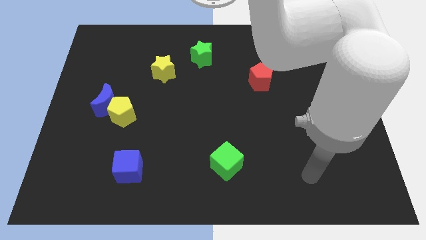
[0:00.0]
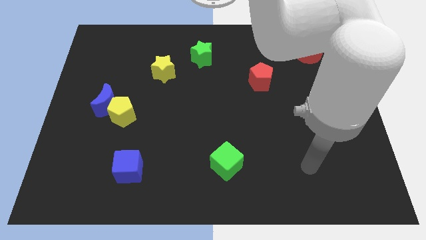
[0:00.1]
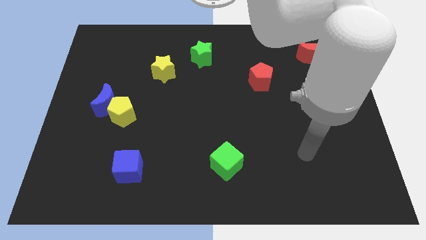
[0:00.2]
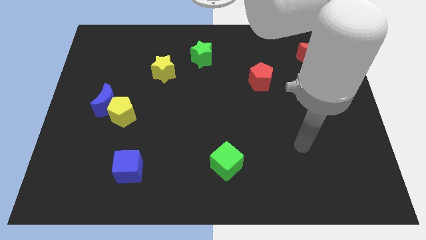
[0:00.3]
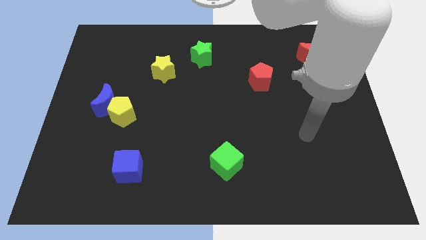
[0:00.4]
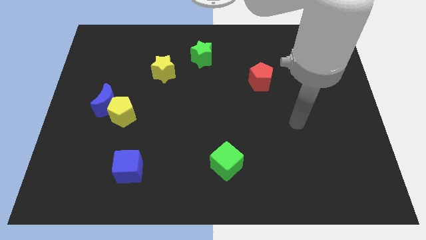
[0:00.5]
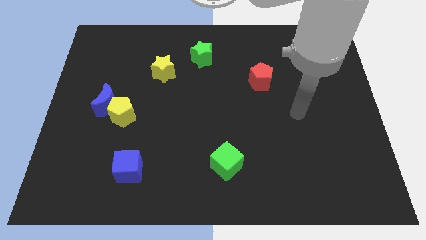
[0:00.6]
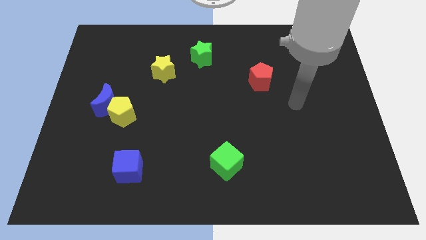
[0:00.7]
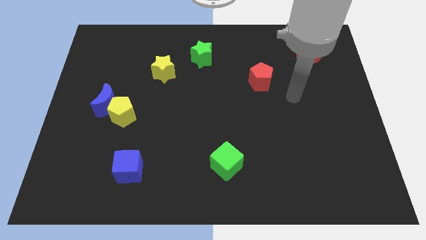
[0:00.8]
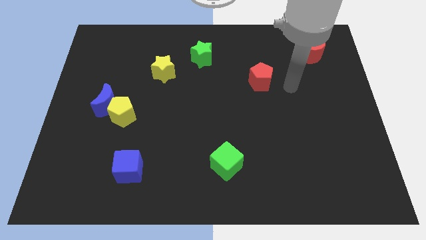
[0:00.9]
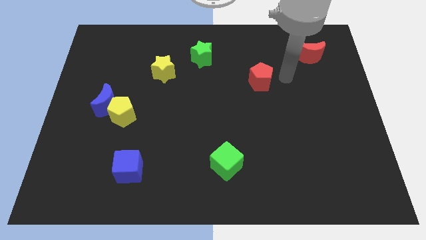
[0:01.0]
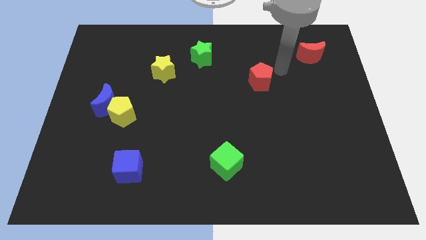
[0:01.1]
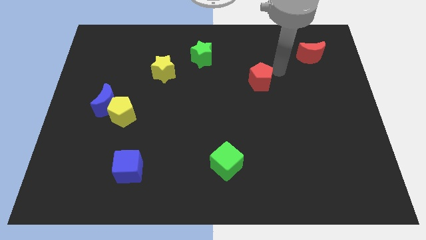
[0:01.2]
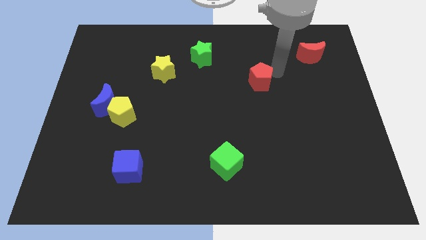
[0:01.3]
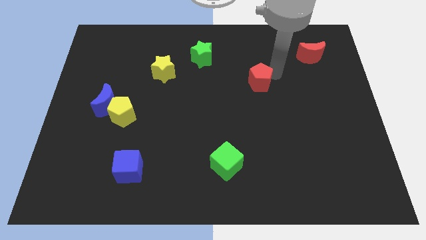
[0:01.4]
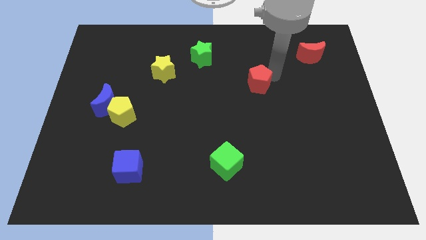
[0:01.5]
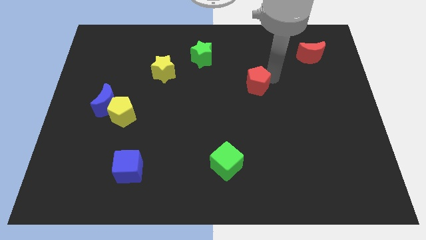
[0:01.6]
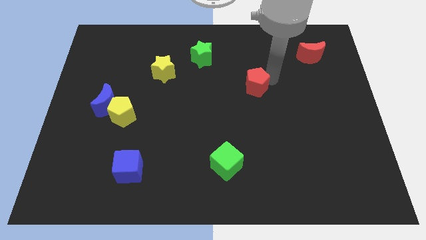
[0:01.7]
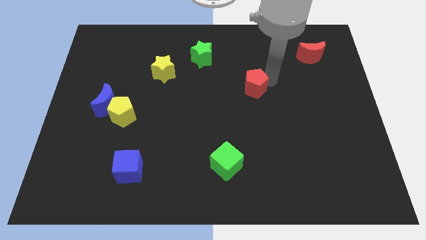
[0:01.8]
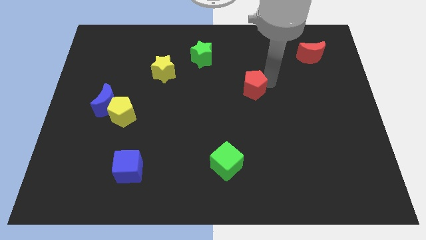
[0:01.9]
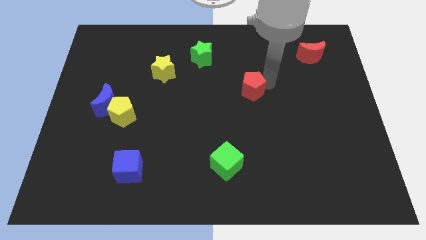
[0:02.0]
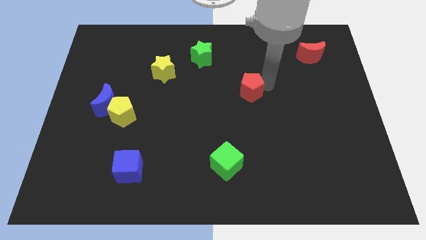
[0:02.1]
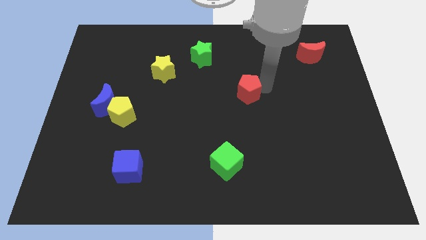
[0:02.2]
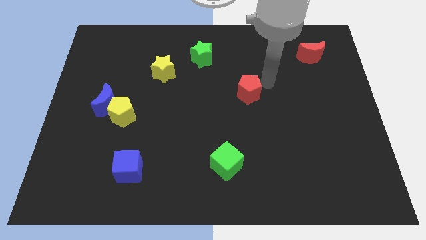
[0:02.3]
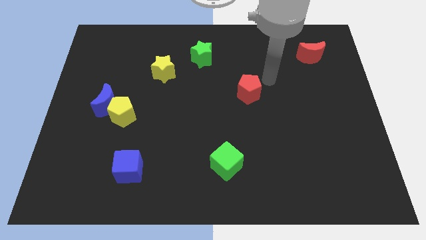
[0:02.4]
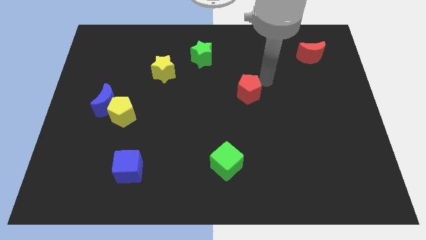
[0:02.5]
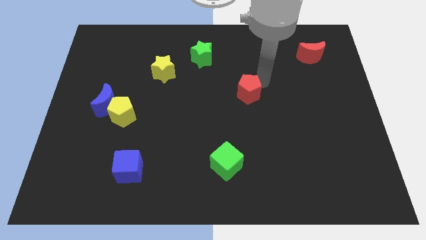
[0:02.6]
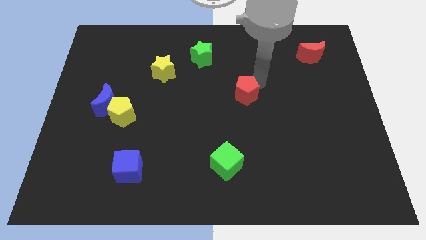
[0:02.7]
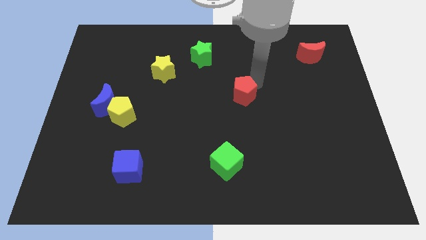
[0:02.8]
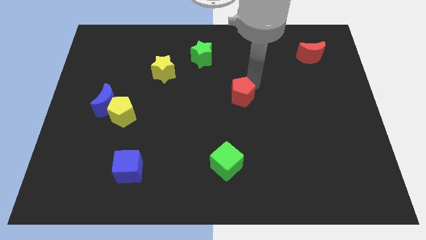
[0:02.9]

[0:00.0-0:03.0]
move the red pentagon somewhat down and left diagonally

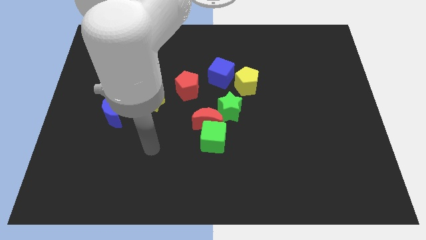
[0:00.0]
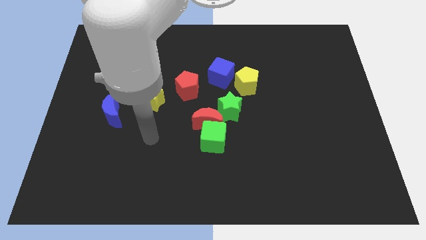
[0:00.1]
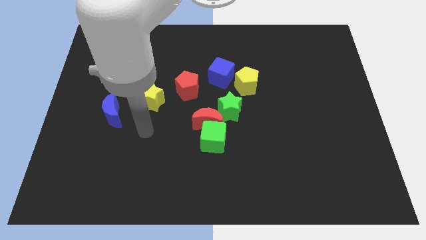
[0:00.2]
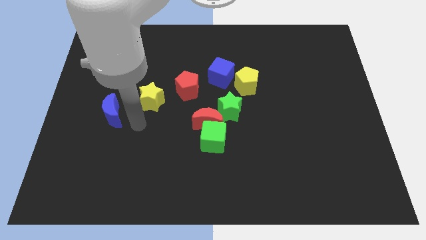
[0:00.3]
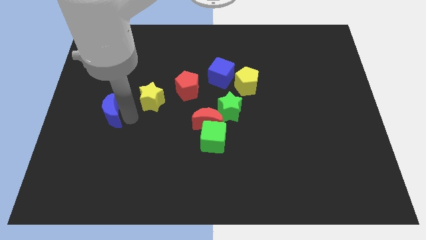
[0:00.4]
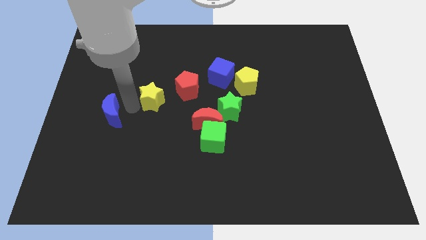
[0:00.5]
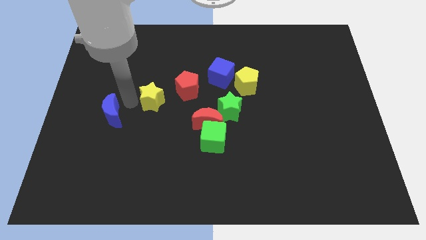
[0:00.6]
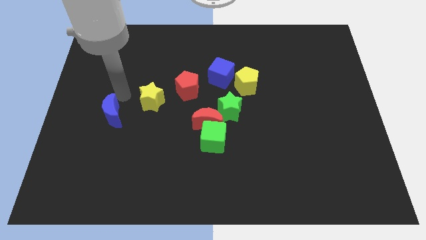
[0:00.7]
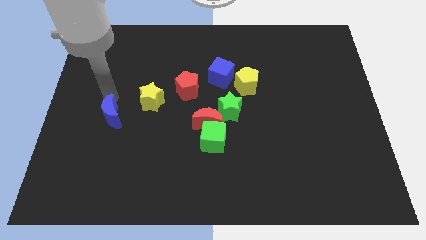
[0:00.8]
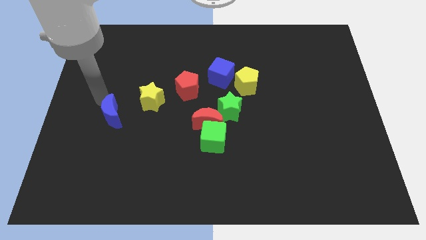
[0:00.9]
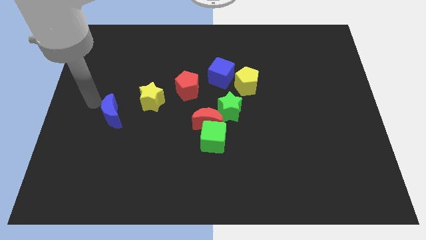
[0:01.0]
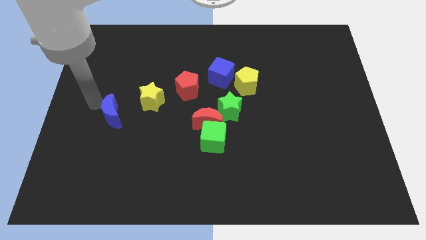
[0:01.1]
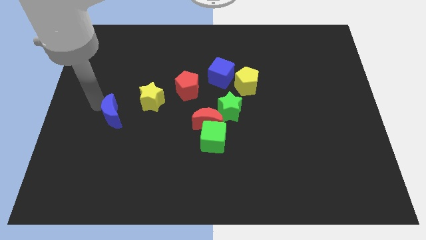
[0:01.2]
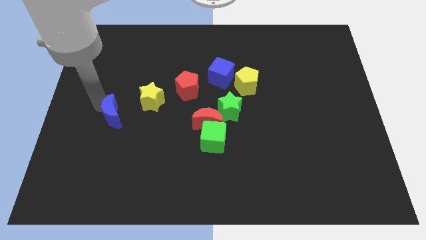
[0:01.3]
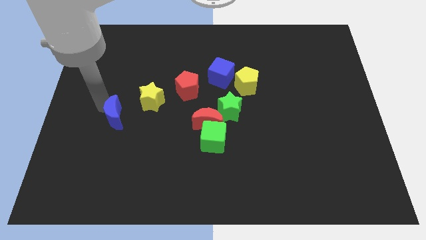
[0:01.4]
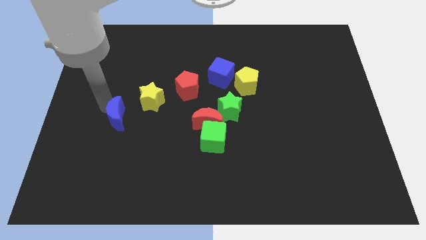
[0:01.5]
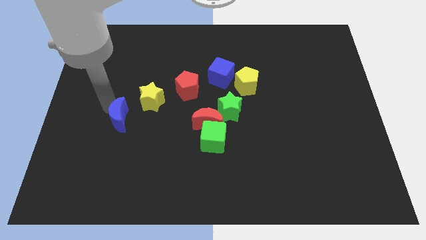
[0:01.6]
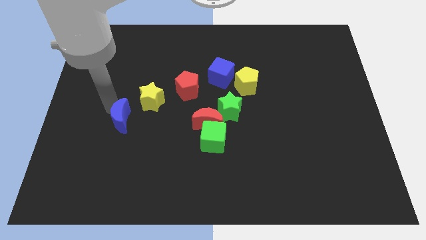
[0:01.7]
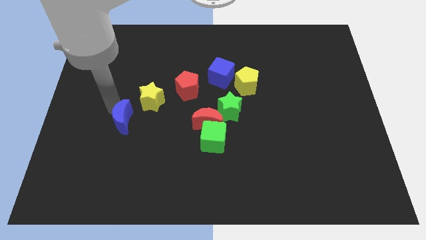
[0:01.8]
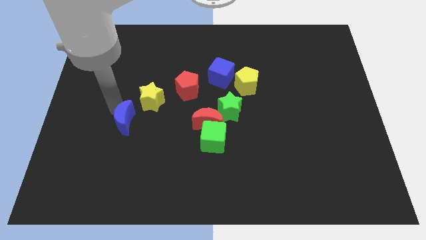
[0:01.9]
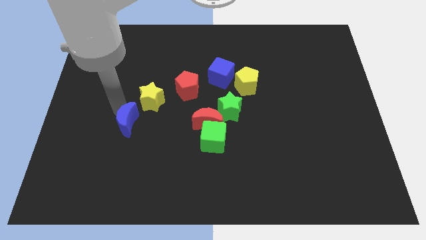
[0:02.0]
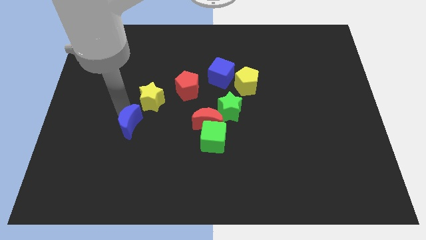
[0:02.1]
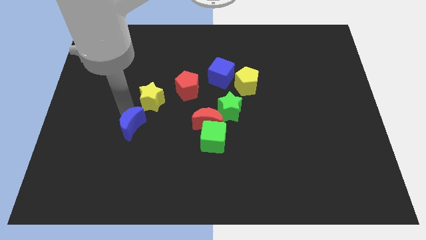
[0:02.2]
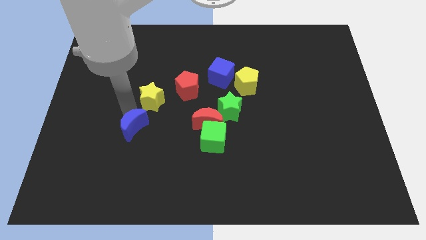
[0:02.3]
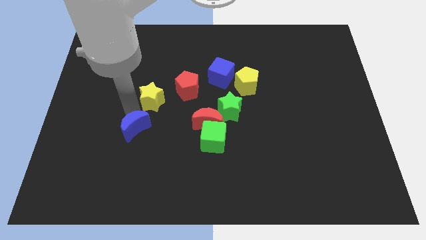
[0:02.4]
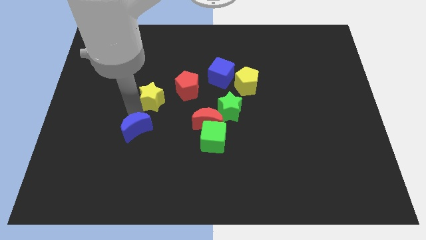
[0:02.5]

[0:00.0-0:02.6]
slightly move the blue moon downwards and then to the right

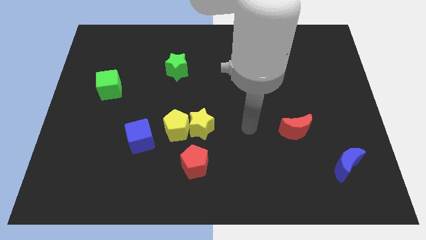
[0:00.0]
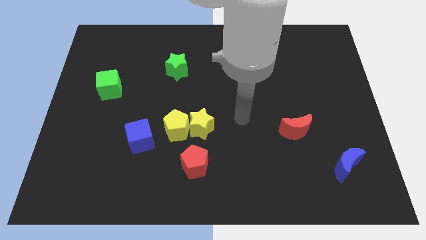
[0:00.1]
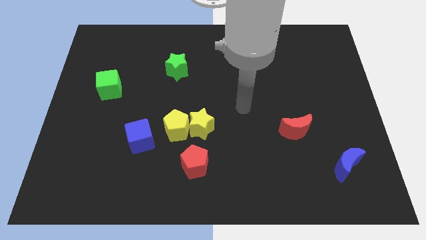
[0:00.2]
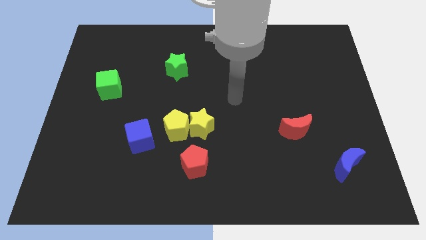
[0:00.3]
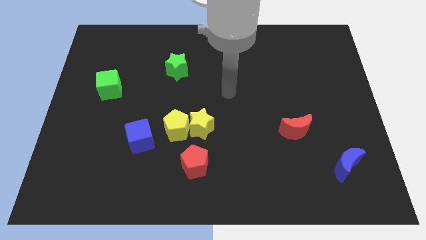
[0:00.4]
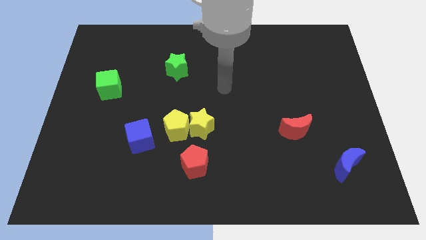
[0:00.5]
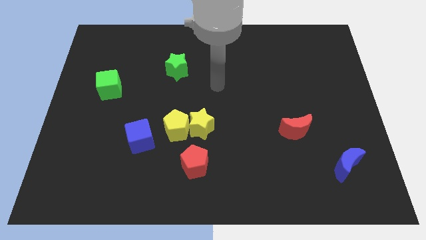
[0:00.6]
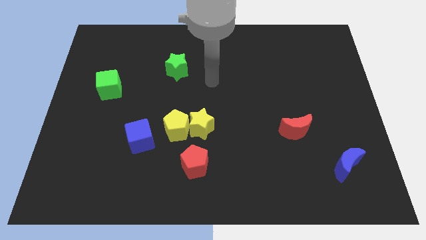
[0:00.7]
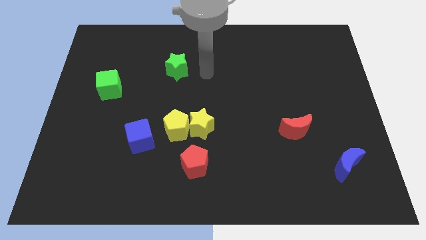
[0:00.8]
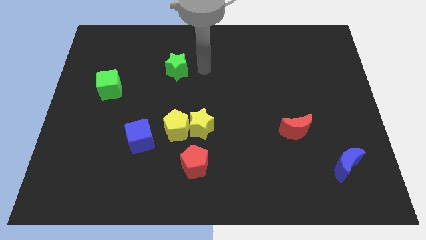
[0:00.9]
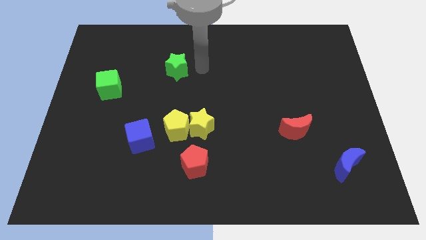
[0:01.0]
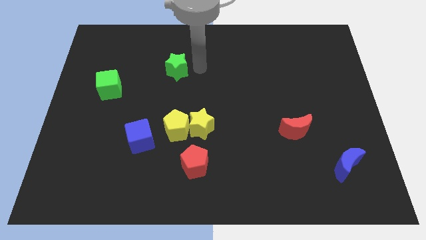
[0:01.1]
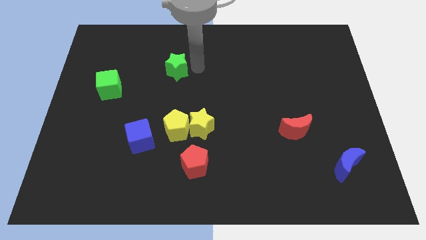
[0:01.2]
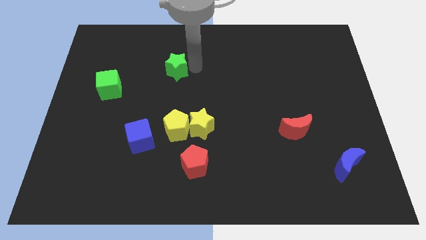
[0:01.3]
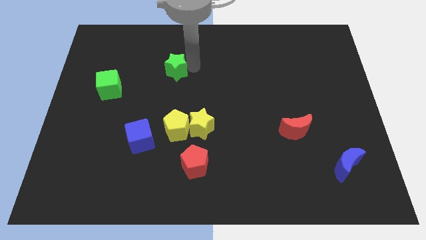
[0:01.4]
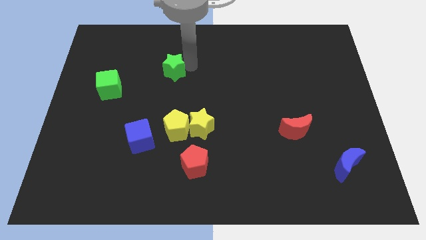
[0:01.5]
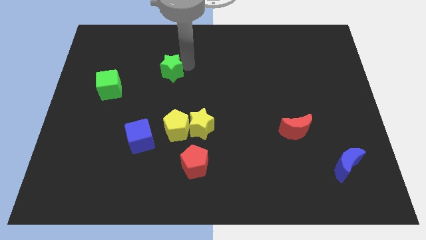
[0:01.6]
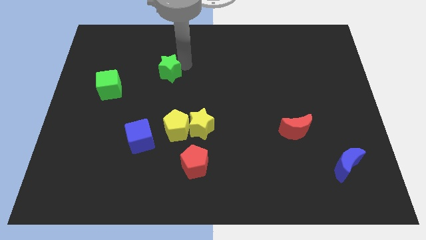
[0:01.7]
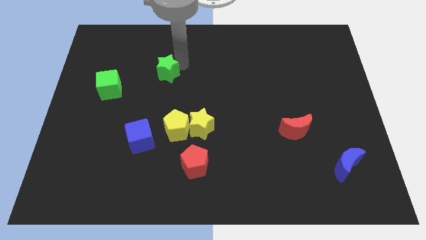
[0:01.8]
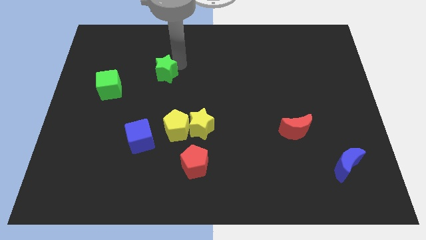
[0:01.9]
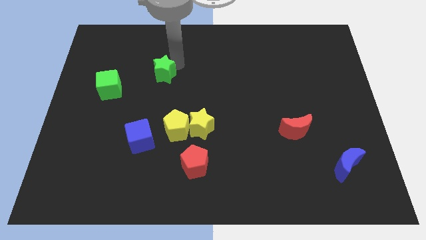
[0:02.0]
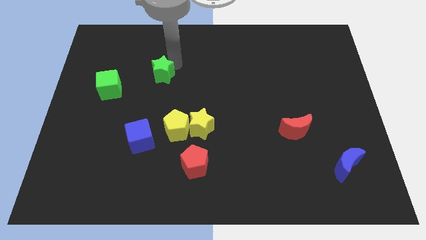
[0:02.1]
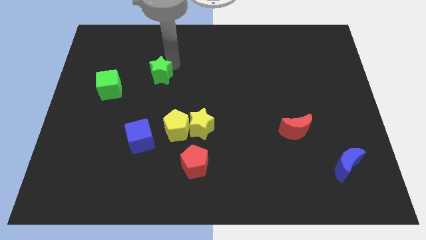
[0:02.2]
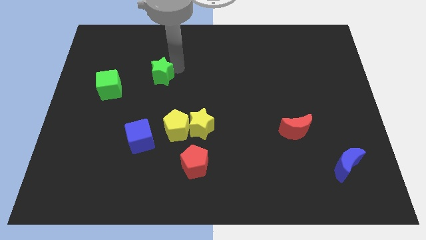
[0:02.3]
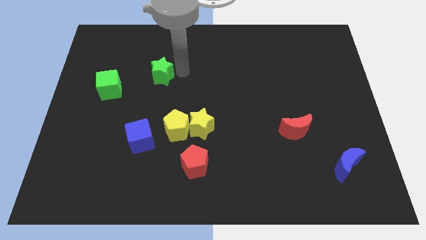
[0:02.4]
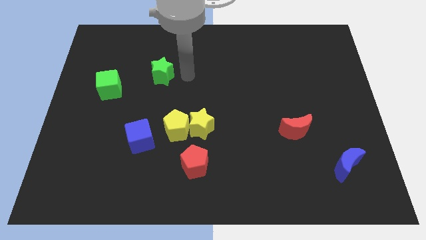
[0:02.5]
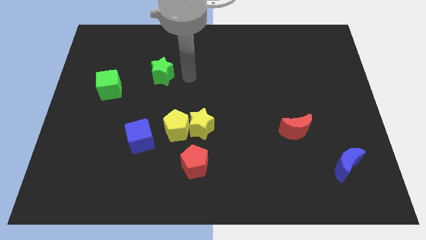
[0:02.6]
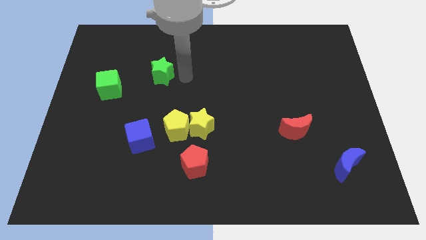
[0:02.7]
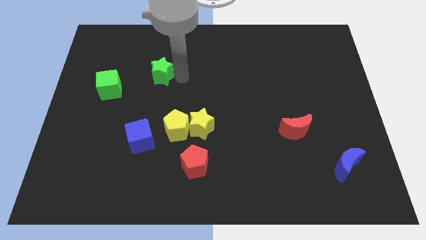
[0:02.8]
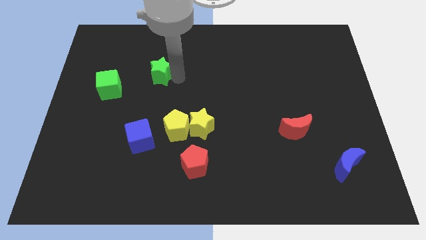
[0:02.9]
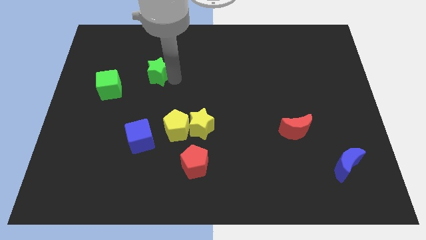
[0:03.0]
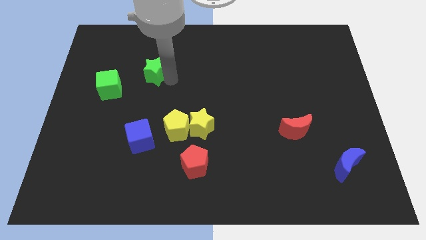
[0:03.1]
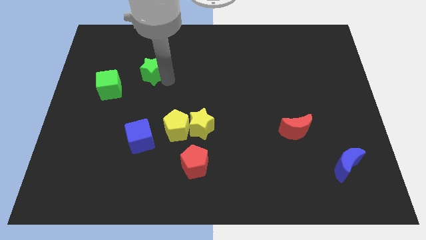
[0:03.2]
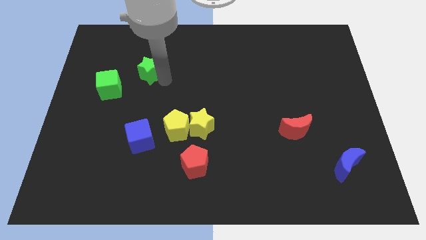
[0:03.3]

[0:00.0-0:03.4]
push the green star a bit left
